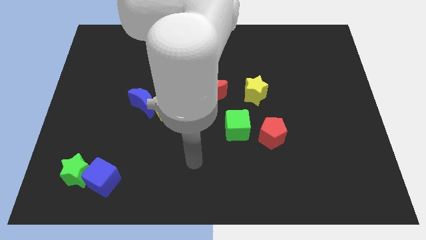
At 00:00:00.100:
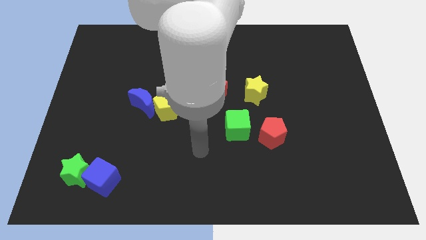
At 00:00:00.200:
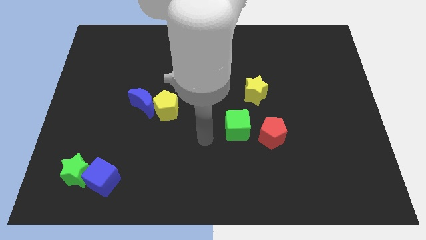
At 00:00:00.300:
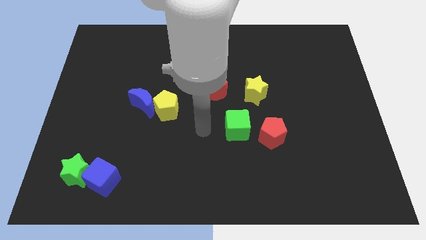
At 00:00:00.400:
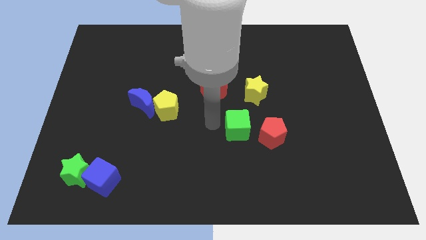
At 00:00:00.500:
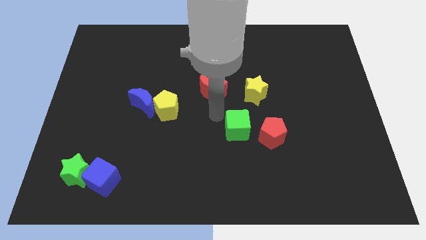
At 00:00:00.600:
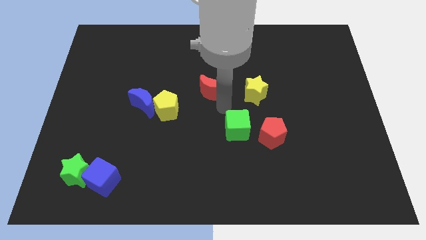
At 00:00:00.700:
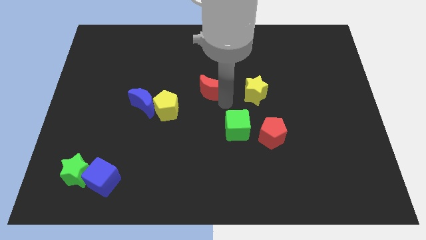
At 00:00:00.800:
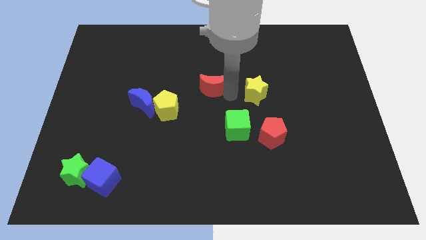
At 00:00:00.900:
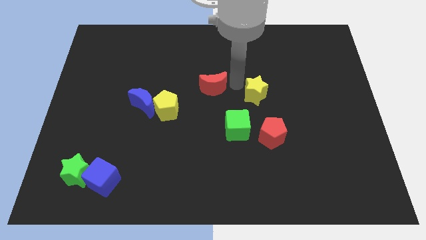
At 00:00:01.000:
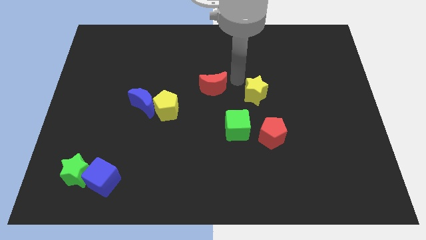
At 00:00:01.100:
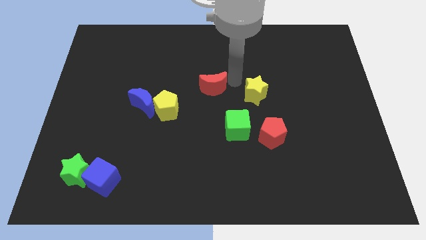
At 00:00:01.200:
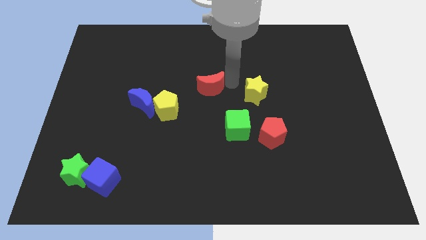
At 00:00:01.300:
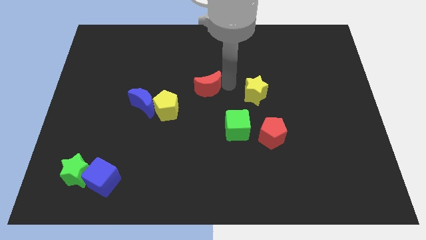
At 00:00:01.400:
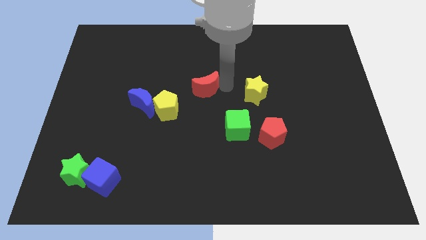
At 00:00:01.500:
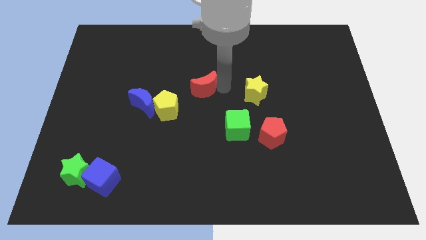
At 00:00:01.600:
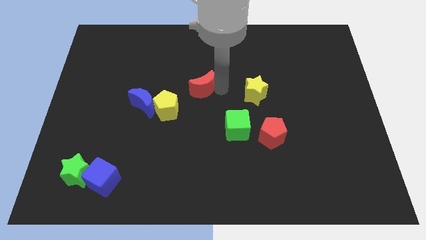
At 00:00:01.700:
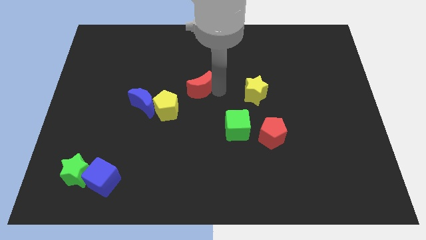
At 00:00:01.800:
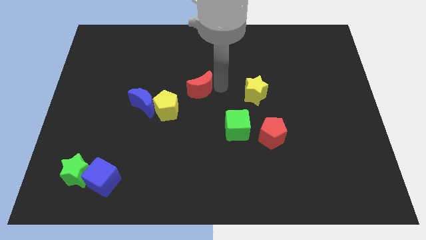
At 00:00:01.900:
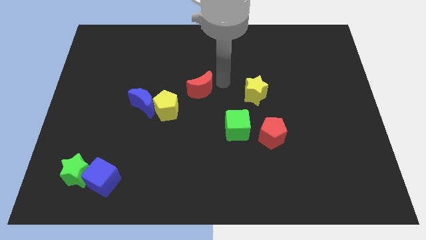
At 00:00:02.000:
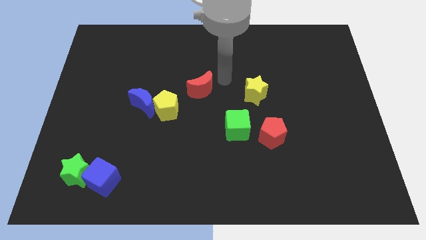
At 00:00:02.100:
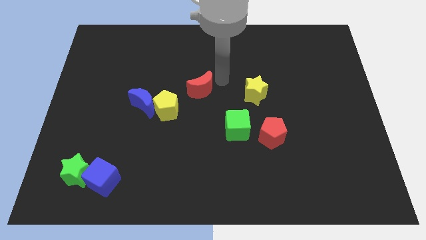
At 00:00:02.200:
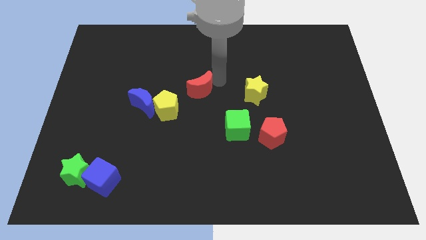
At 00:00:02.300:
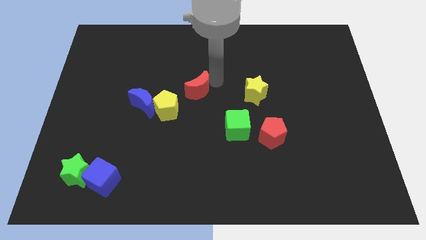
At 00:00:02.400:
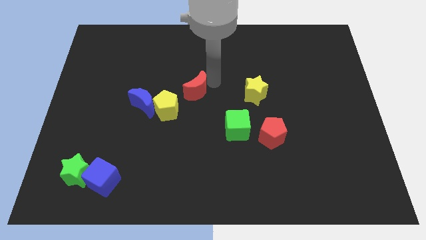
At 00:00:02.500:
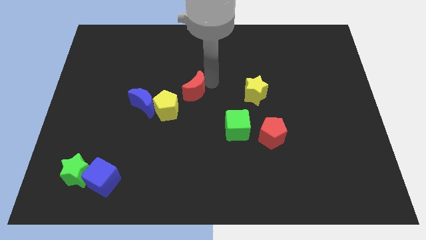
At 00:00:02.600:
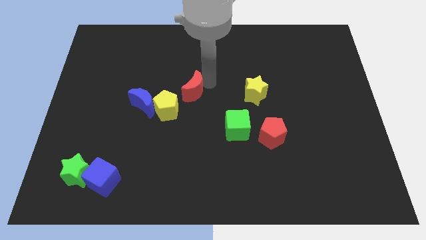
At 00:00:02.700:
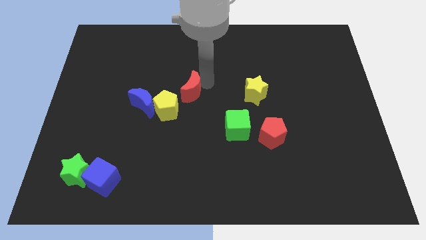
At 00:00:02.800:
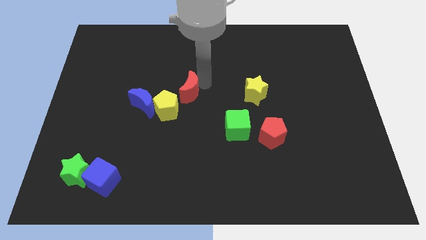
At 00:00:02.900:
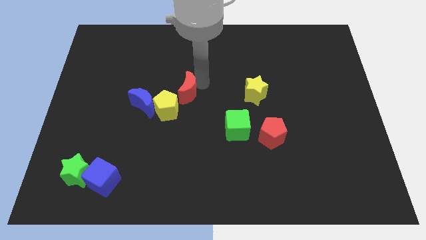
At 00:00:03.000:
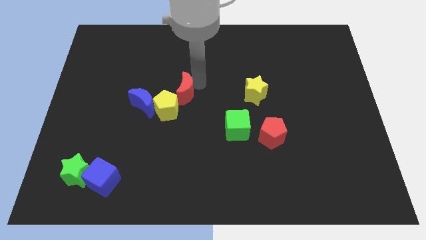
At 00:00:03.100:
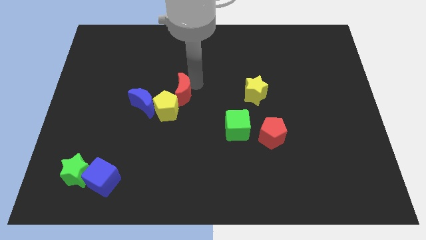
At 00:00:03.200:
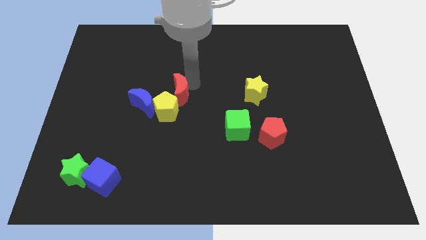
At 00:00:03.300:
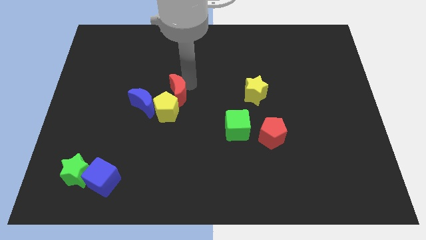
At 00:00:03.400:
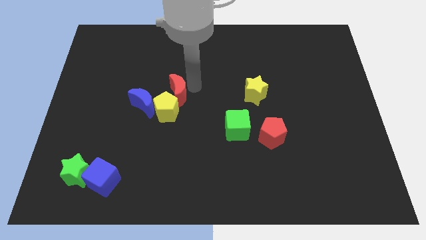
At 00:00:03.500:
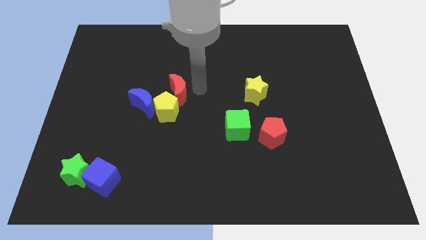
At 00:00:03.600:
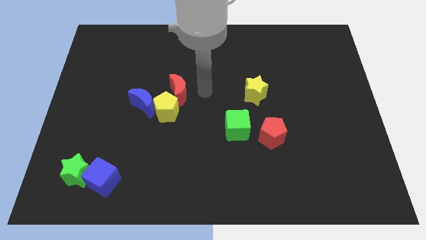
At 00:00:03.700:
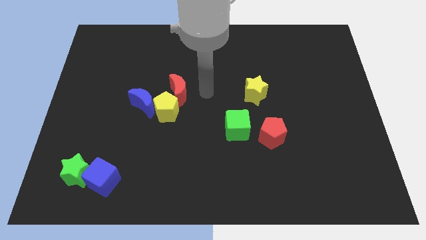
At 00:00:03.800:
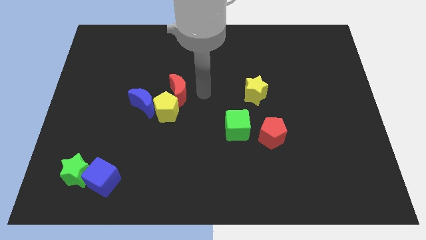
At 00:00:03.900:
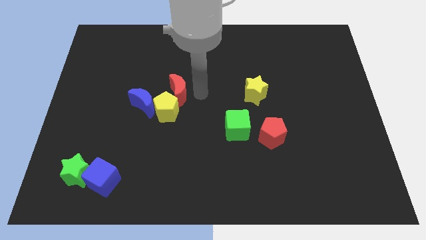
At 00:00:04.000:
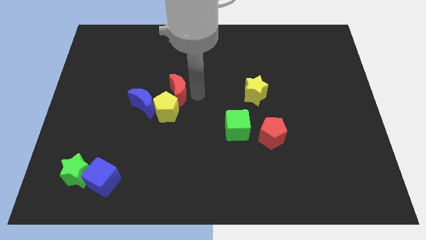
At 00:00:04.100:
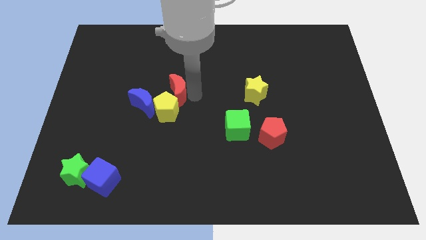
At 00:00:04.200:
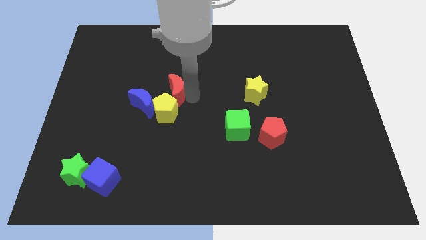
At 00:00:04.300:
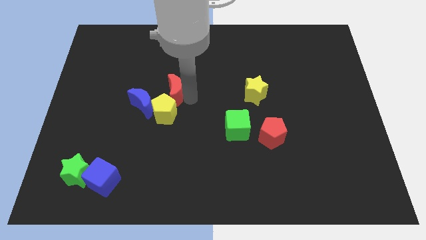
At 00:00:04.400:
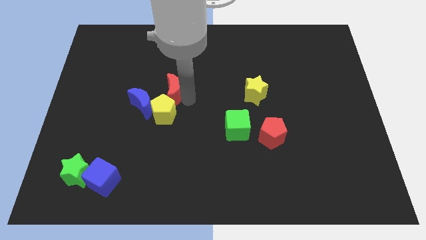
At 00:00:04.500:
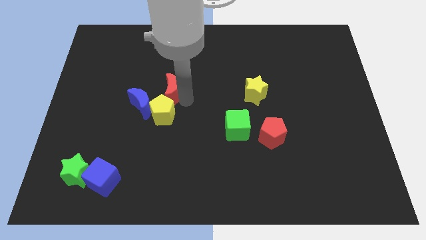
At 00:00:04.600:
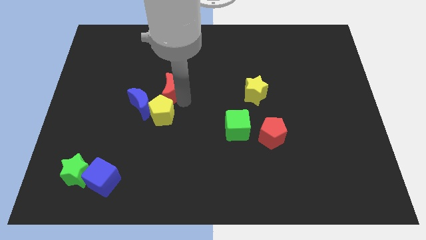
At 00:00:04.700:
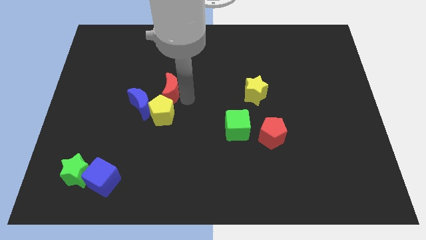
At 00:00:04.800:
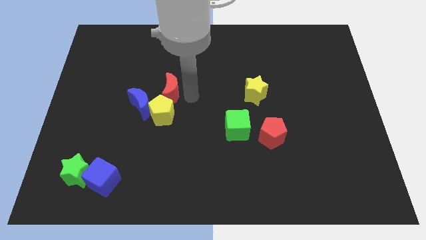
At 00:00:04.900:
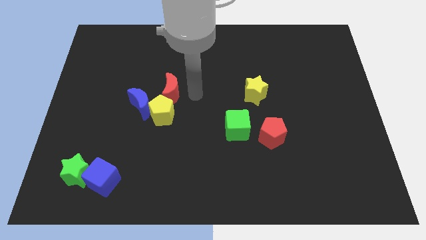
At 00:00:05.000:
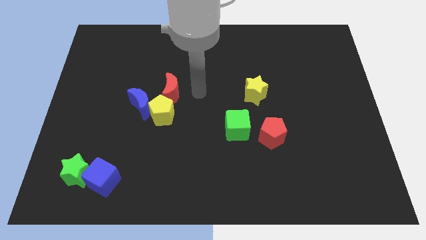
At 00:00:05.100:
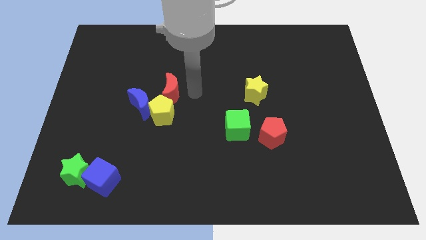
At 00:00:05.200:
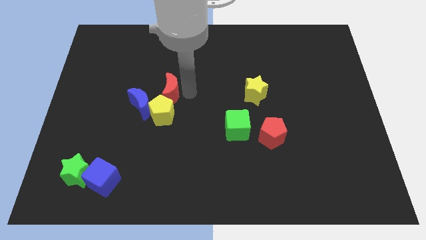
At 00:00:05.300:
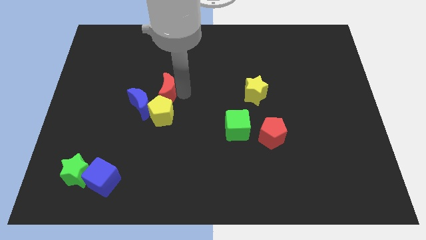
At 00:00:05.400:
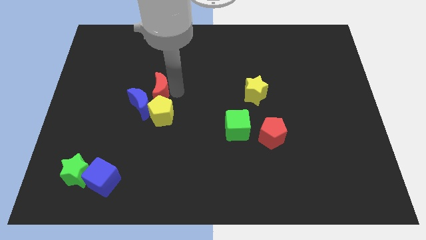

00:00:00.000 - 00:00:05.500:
push the red moon next to the blue moon

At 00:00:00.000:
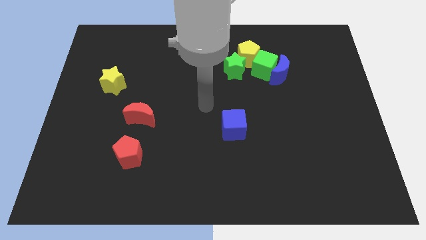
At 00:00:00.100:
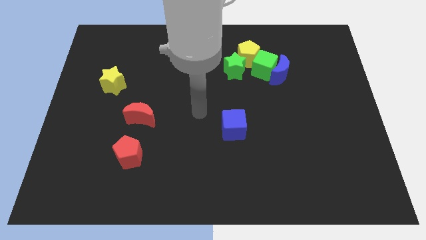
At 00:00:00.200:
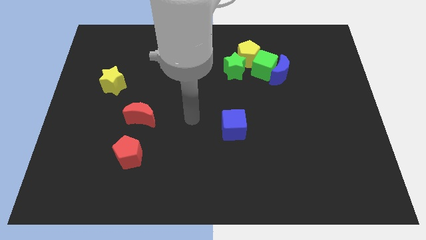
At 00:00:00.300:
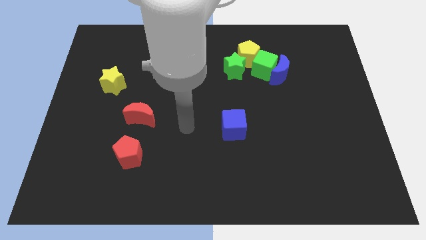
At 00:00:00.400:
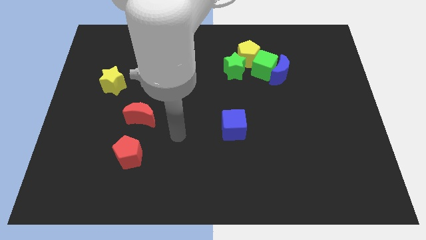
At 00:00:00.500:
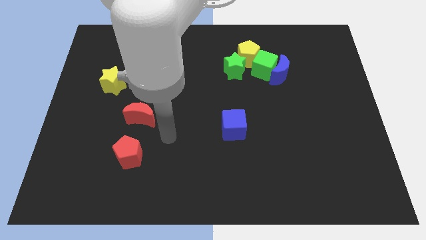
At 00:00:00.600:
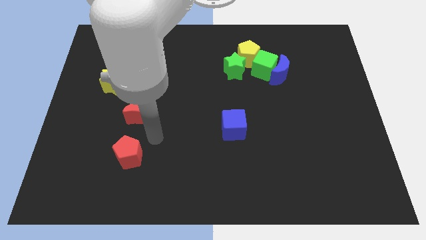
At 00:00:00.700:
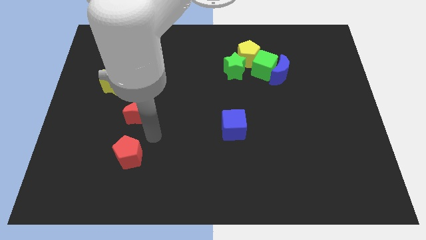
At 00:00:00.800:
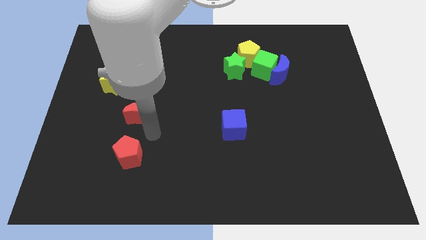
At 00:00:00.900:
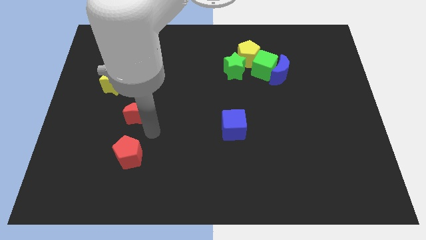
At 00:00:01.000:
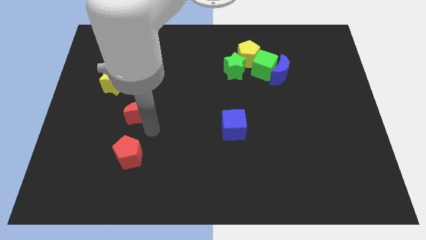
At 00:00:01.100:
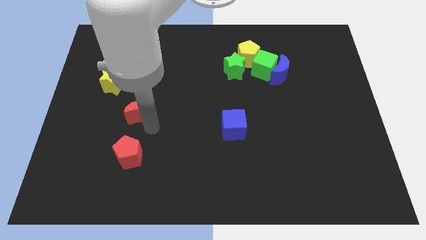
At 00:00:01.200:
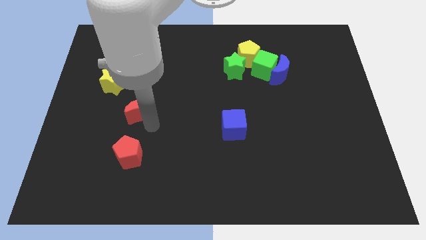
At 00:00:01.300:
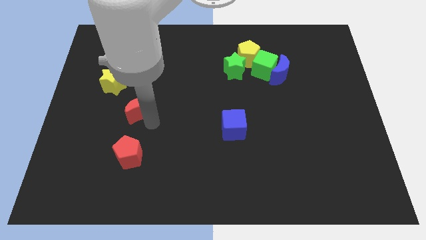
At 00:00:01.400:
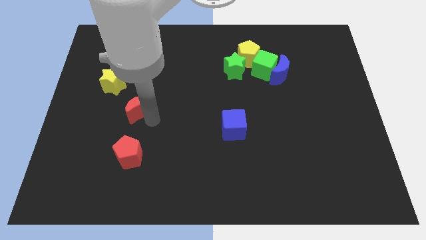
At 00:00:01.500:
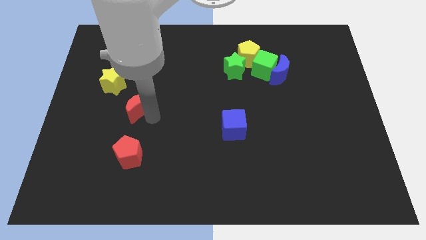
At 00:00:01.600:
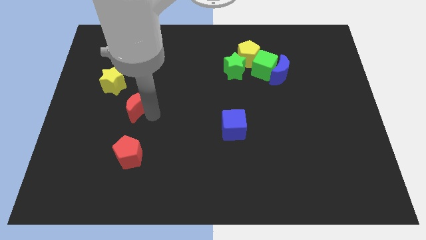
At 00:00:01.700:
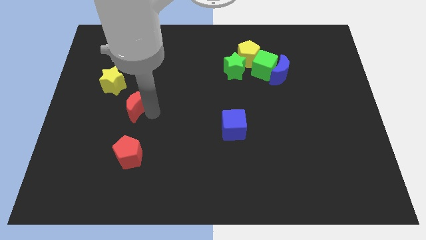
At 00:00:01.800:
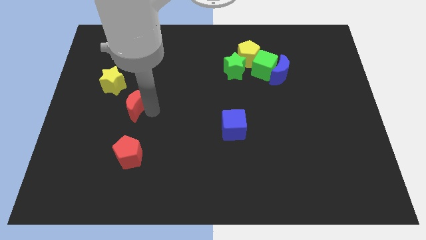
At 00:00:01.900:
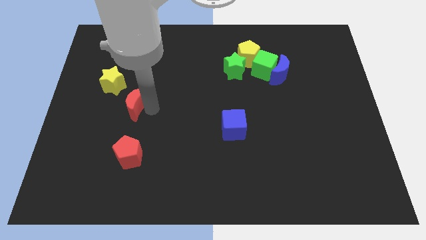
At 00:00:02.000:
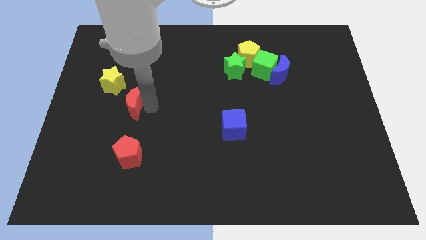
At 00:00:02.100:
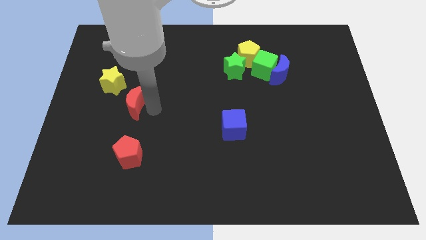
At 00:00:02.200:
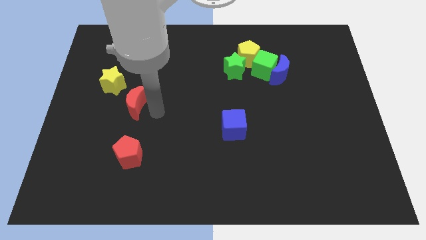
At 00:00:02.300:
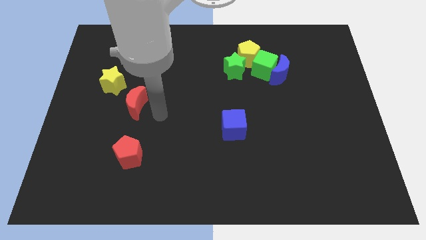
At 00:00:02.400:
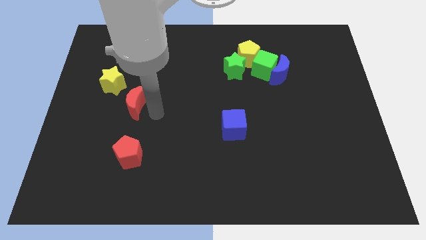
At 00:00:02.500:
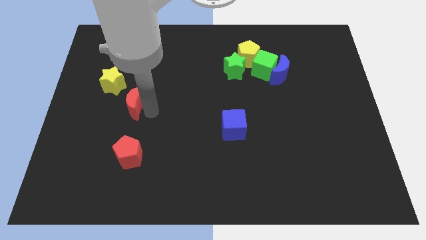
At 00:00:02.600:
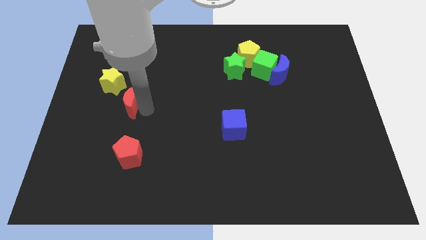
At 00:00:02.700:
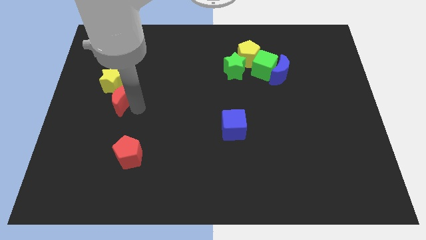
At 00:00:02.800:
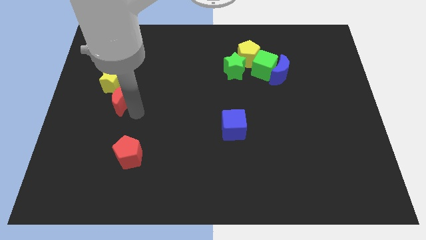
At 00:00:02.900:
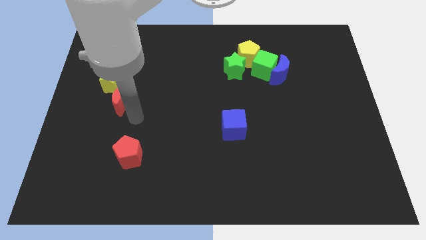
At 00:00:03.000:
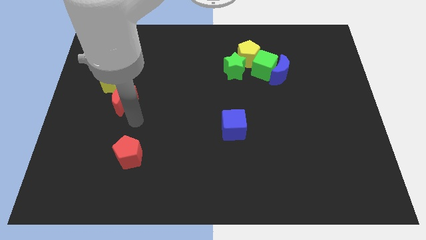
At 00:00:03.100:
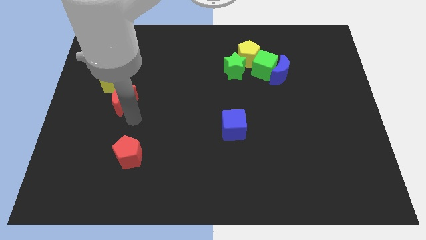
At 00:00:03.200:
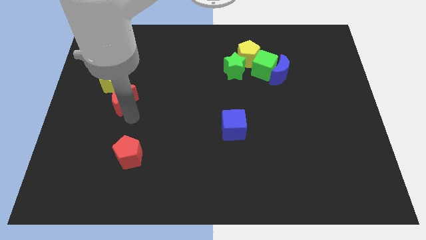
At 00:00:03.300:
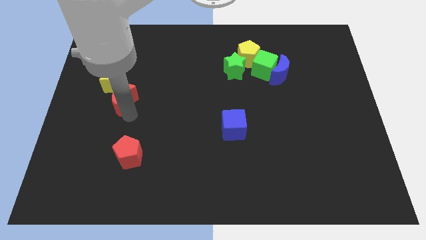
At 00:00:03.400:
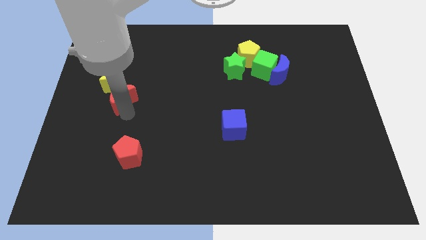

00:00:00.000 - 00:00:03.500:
put the red moon towards the yellow star
